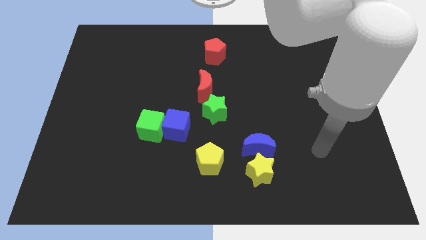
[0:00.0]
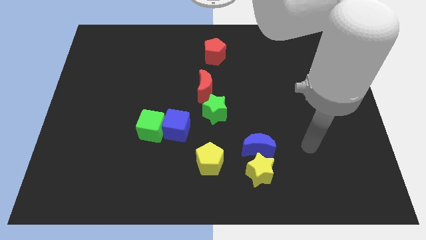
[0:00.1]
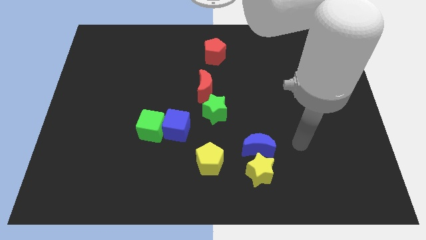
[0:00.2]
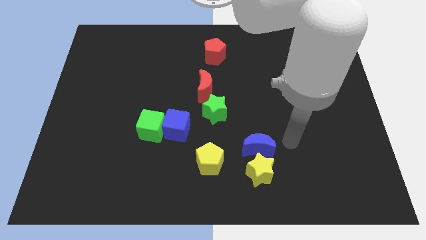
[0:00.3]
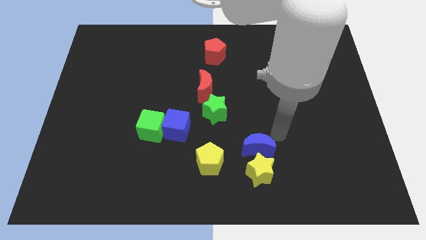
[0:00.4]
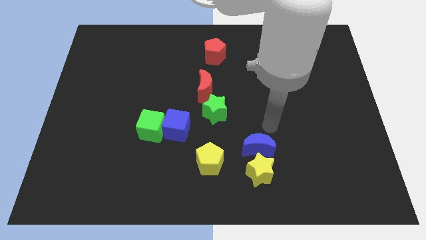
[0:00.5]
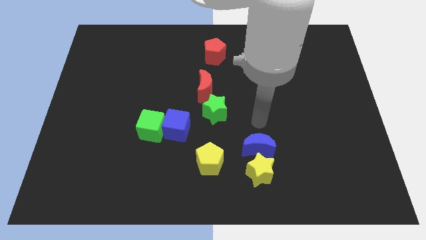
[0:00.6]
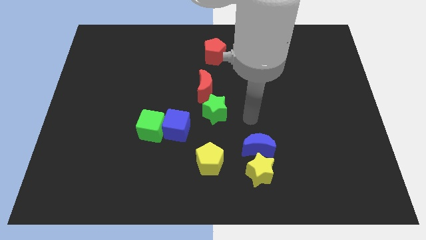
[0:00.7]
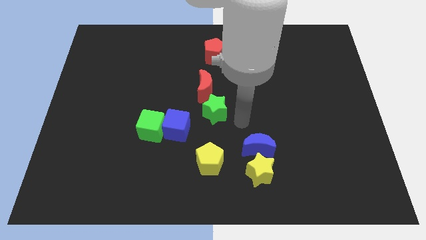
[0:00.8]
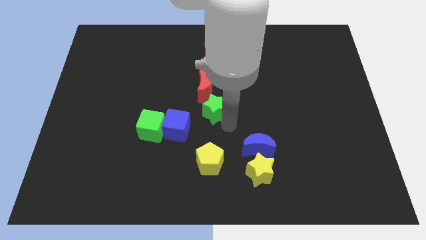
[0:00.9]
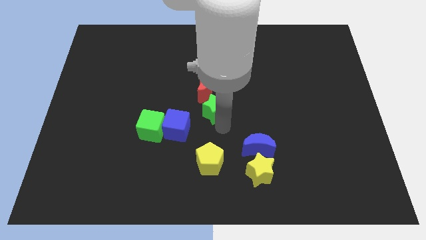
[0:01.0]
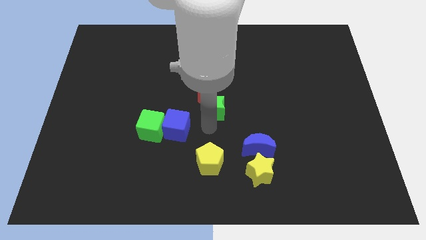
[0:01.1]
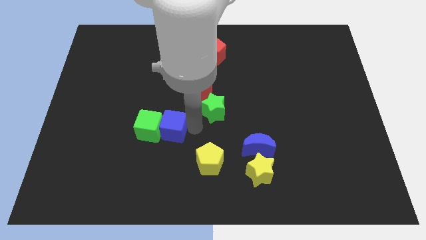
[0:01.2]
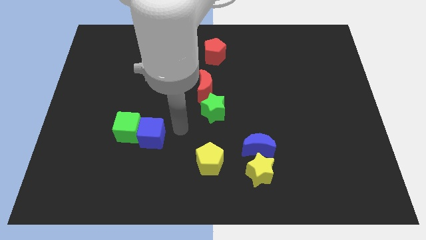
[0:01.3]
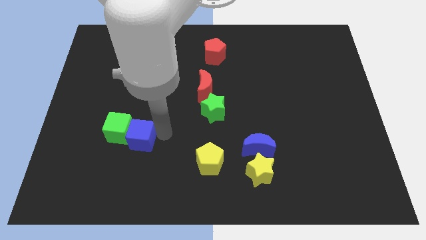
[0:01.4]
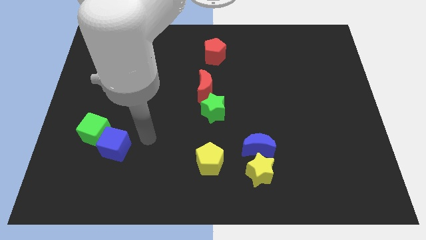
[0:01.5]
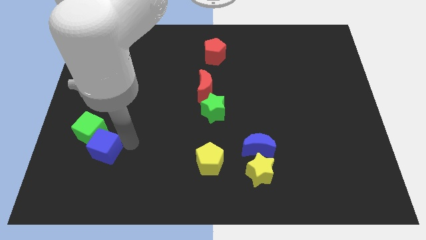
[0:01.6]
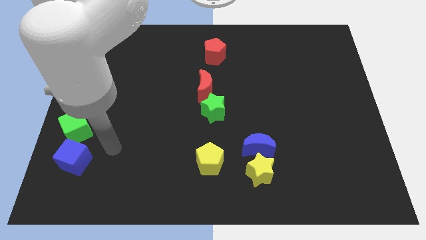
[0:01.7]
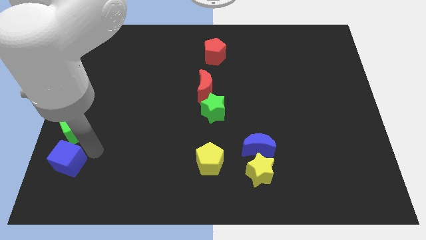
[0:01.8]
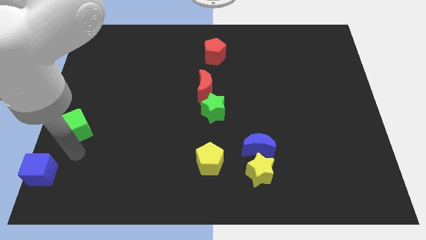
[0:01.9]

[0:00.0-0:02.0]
move the green cube away from the blue cube

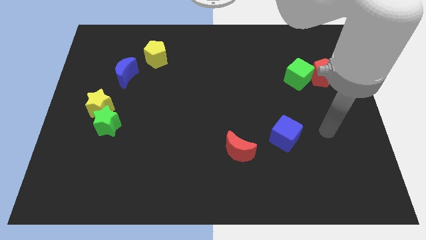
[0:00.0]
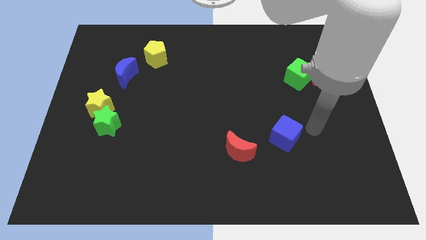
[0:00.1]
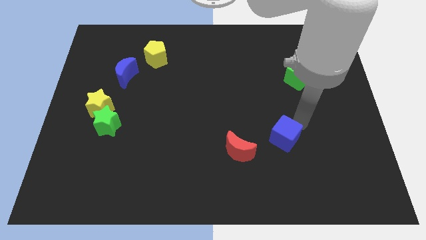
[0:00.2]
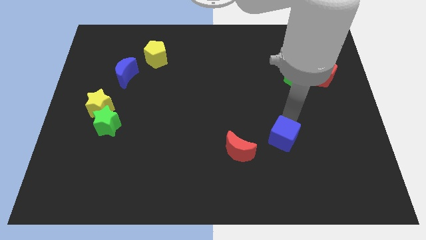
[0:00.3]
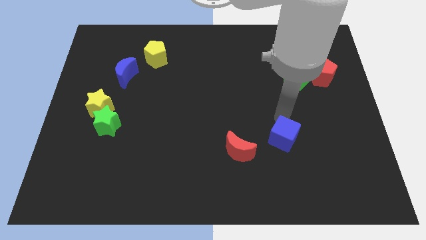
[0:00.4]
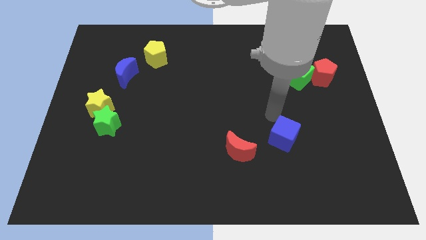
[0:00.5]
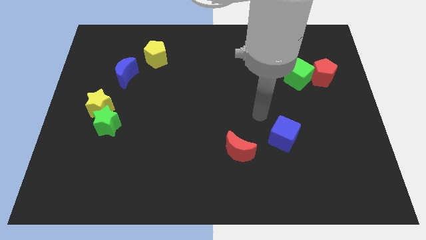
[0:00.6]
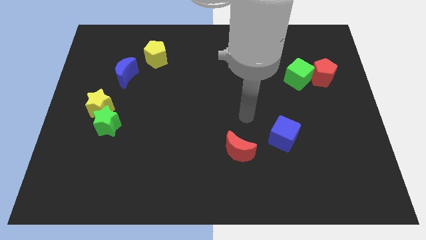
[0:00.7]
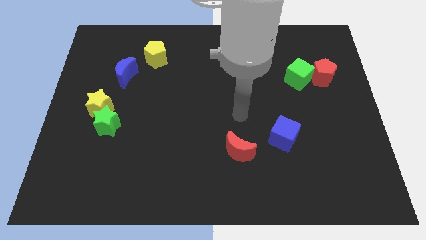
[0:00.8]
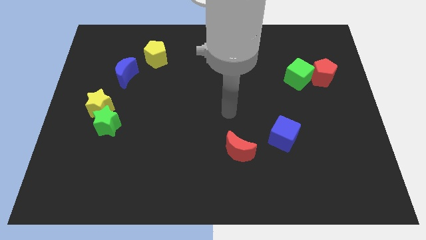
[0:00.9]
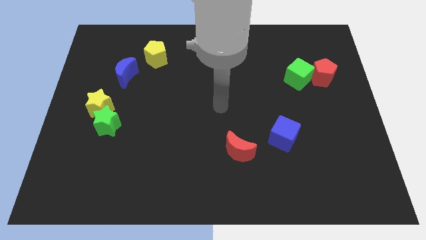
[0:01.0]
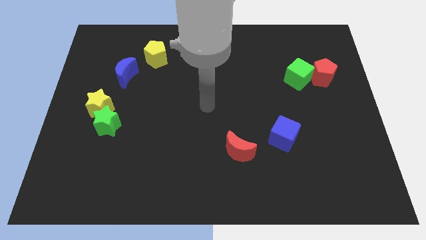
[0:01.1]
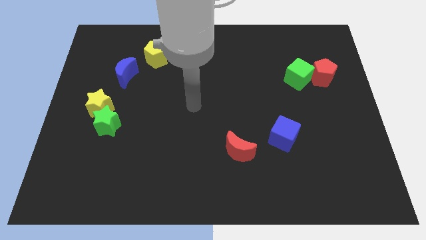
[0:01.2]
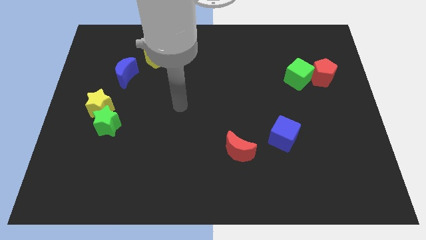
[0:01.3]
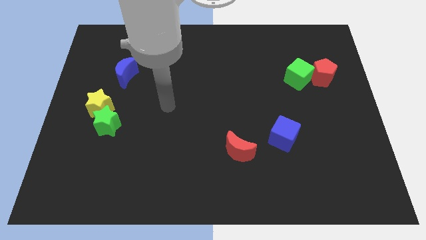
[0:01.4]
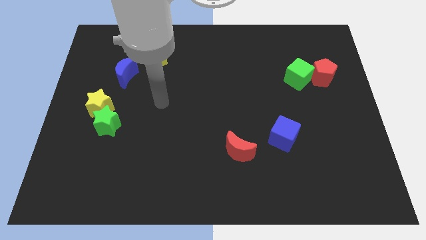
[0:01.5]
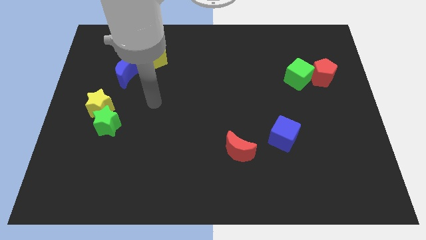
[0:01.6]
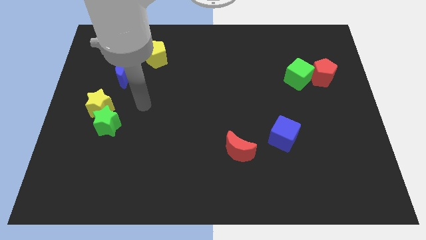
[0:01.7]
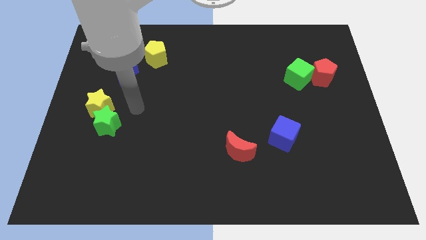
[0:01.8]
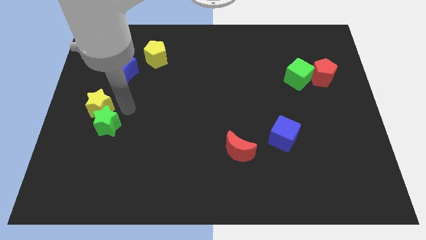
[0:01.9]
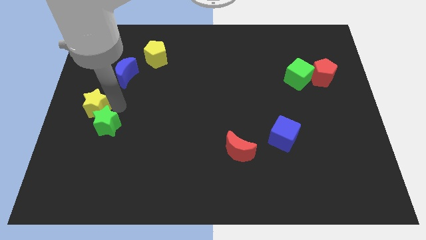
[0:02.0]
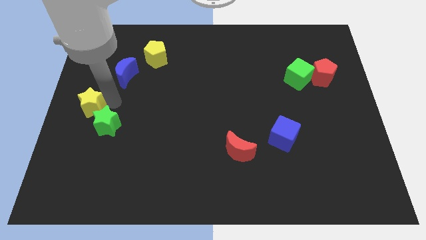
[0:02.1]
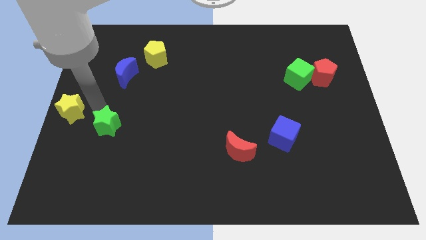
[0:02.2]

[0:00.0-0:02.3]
pull the green star apart from the yellow star

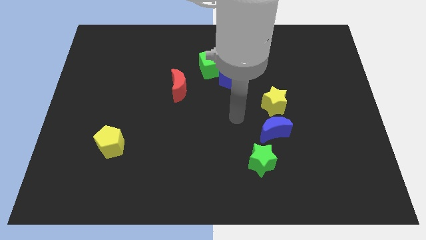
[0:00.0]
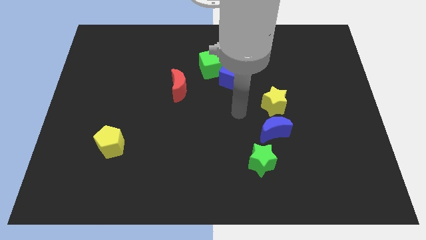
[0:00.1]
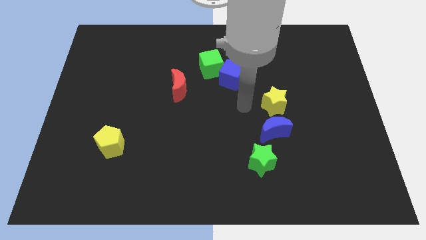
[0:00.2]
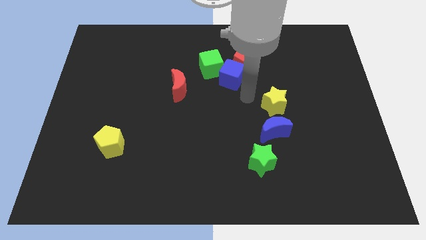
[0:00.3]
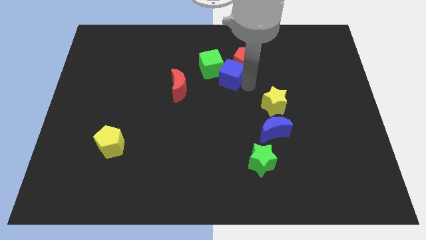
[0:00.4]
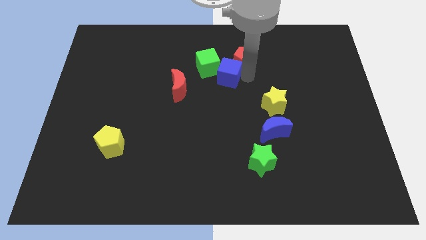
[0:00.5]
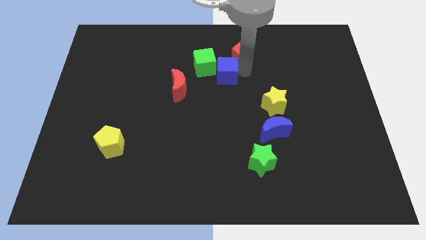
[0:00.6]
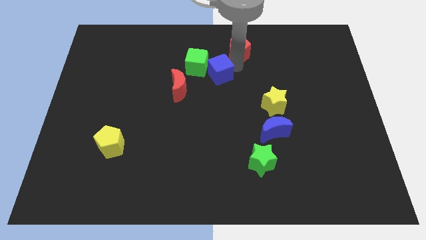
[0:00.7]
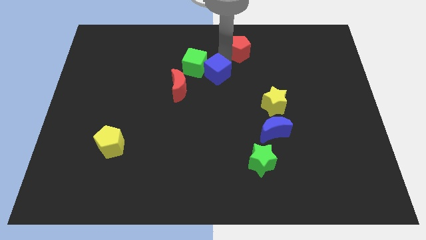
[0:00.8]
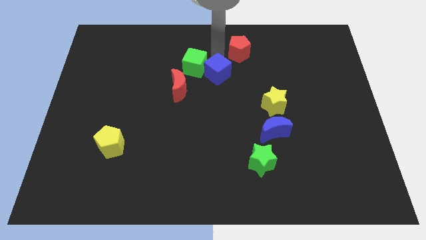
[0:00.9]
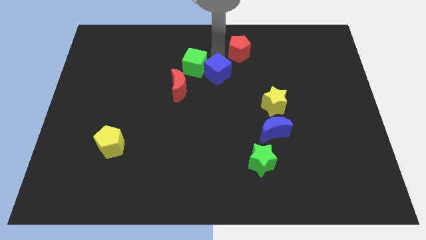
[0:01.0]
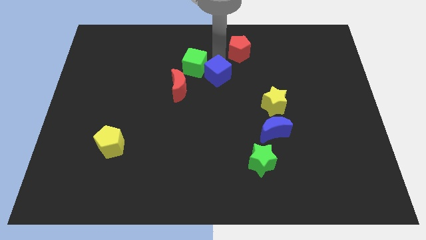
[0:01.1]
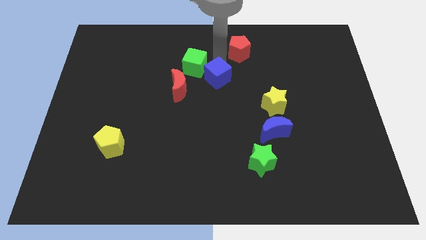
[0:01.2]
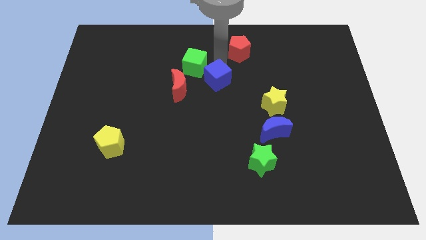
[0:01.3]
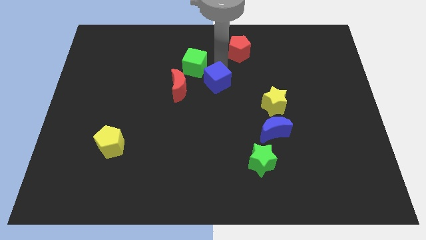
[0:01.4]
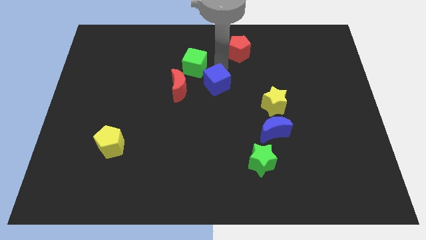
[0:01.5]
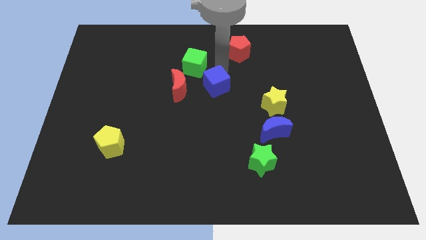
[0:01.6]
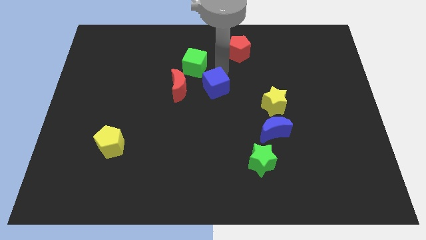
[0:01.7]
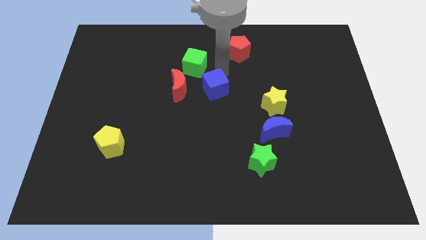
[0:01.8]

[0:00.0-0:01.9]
pull the blue cube apart from the red pentagon and green cube

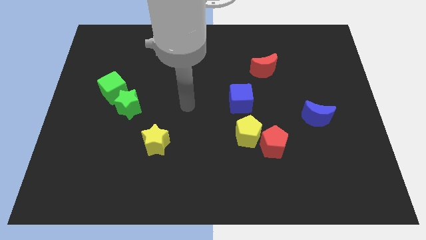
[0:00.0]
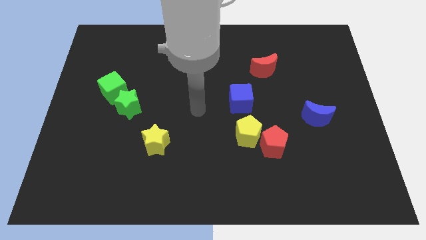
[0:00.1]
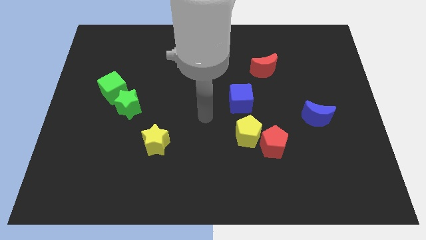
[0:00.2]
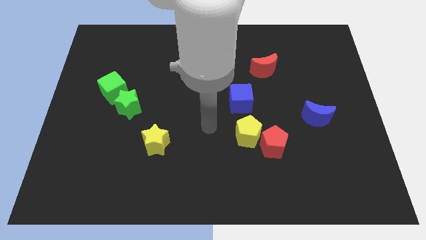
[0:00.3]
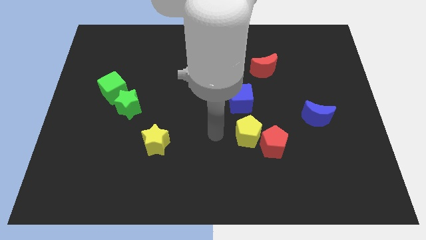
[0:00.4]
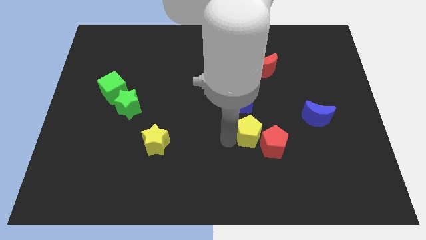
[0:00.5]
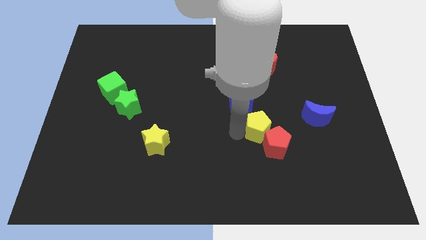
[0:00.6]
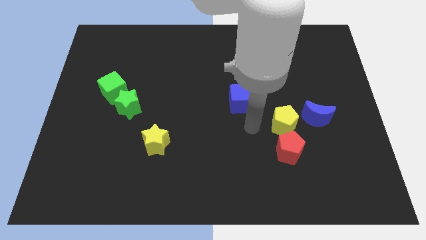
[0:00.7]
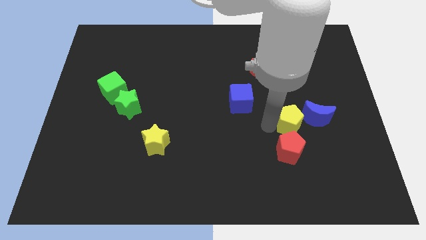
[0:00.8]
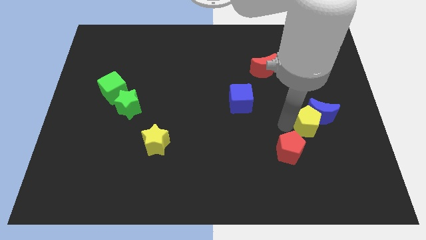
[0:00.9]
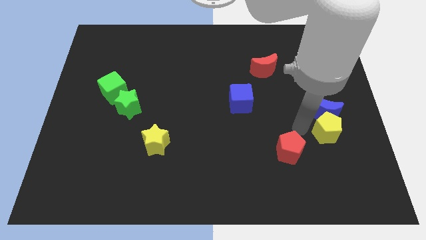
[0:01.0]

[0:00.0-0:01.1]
separate the red pentagon from the yellow pentagon

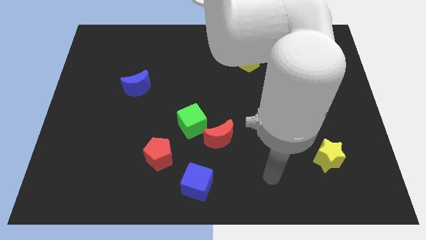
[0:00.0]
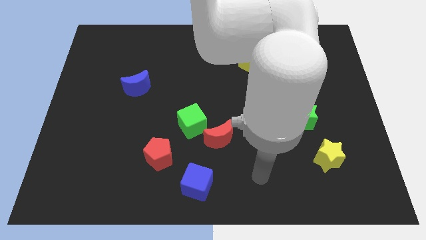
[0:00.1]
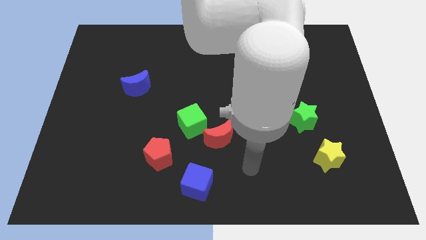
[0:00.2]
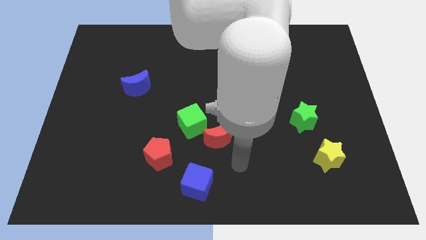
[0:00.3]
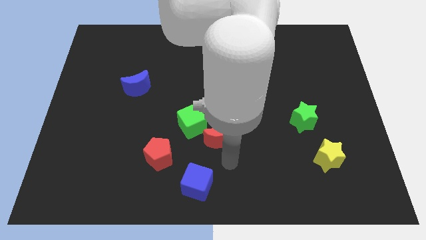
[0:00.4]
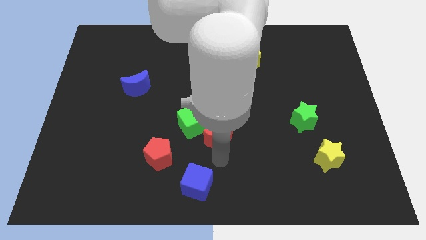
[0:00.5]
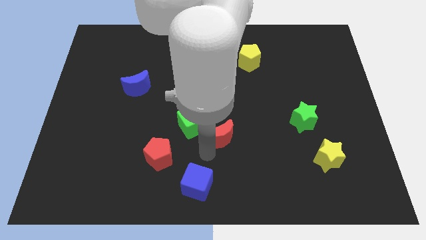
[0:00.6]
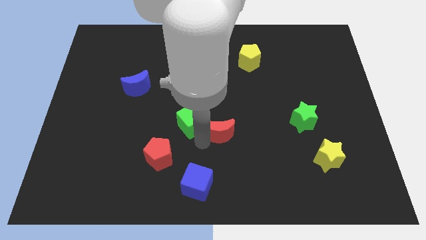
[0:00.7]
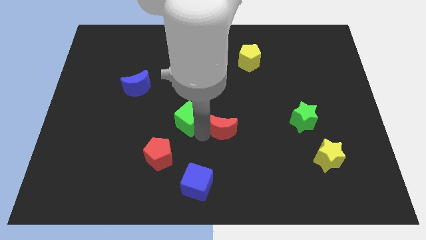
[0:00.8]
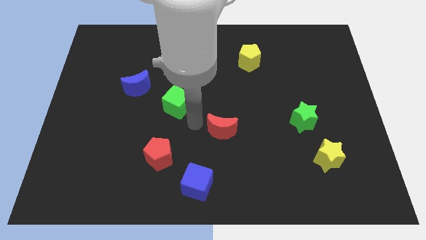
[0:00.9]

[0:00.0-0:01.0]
separate the red moon from the green cube

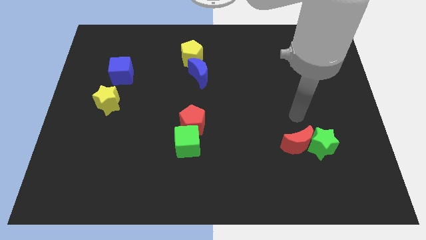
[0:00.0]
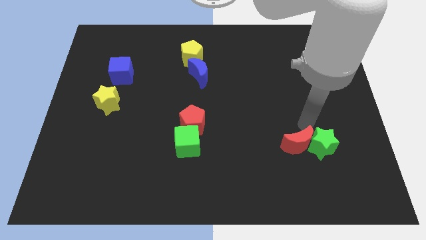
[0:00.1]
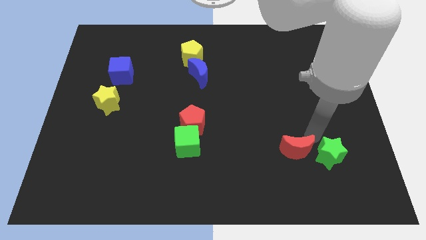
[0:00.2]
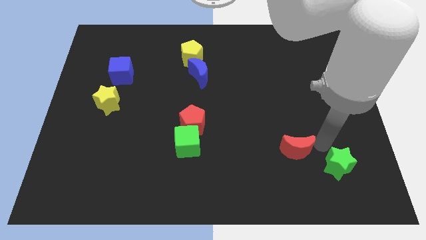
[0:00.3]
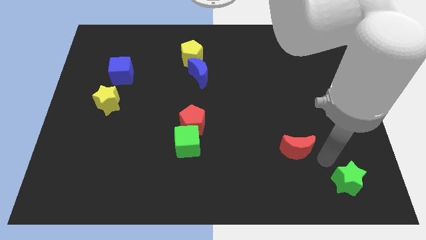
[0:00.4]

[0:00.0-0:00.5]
pull the red moon apart from the green star

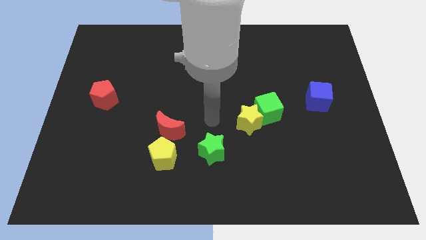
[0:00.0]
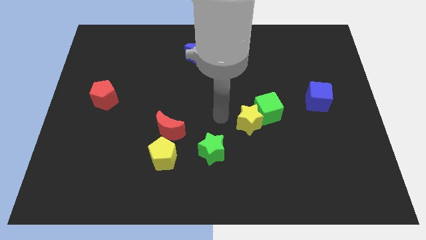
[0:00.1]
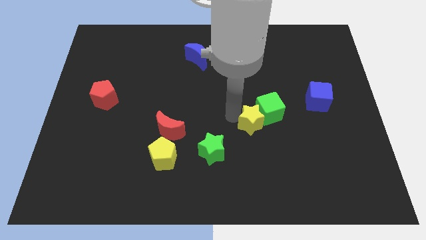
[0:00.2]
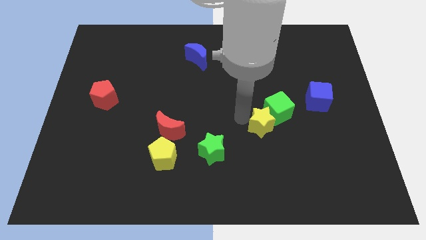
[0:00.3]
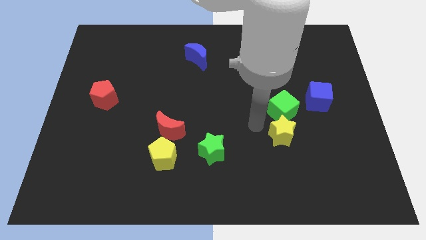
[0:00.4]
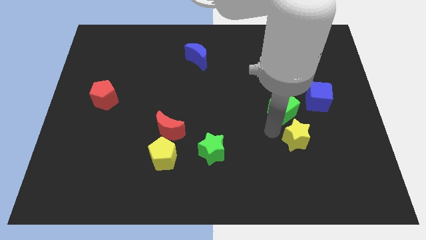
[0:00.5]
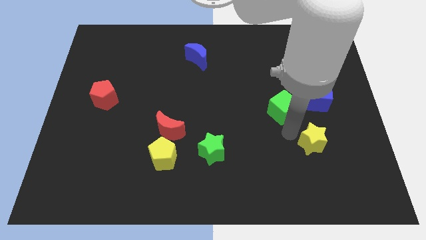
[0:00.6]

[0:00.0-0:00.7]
move the green cube away from the yellow star
